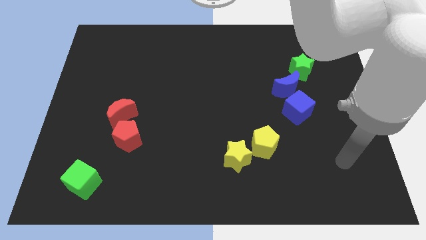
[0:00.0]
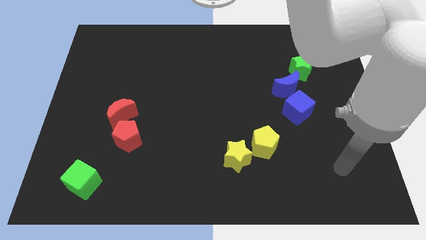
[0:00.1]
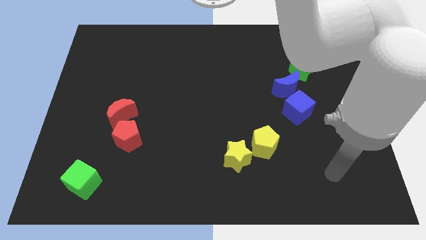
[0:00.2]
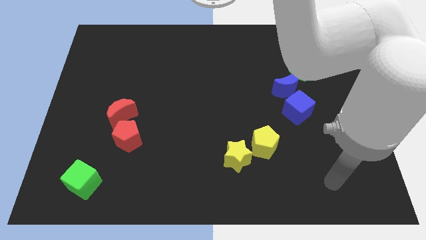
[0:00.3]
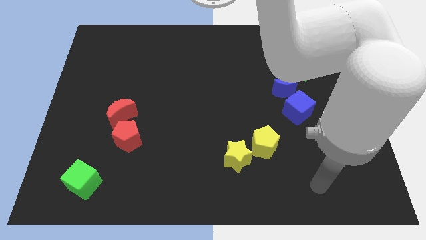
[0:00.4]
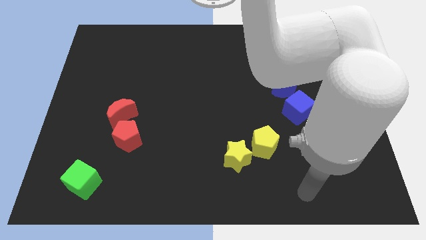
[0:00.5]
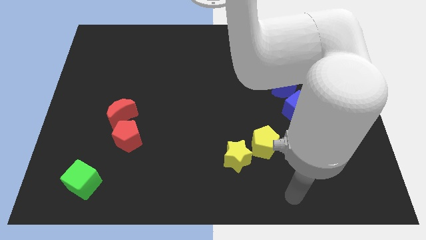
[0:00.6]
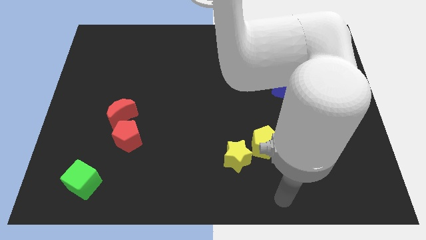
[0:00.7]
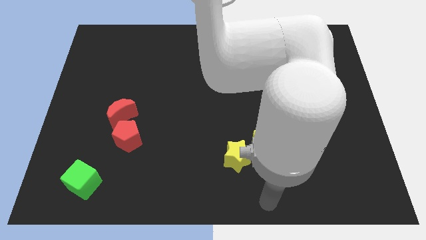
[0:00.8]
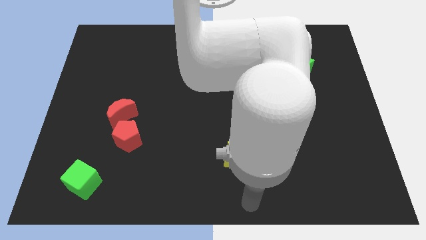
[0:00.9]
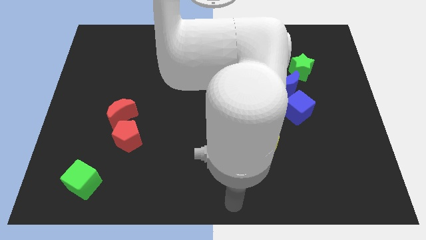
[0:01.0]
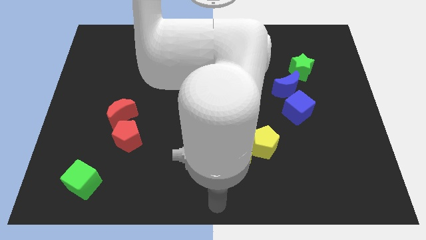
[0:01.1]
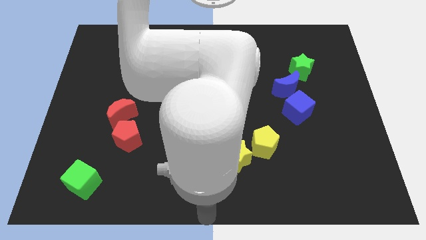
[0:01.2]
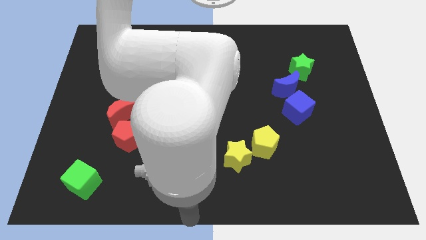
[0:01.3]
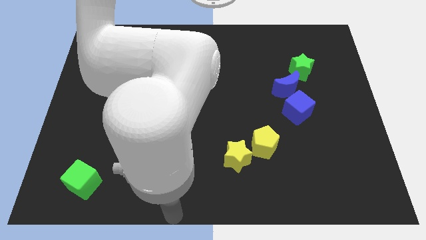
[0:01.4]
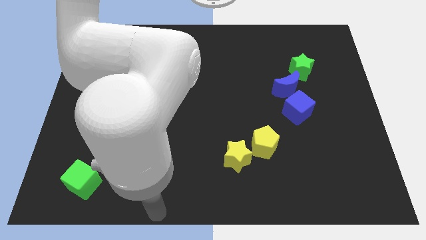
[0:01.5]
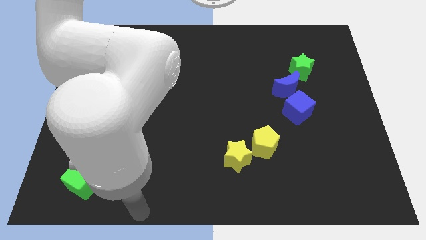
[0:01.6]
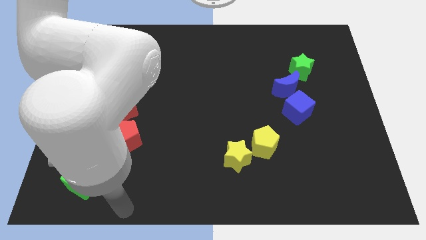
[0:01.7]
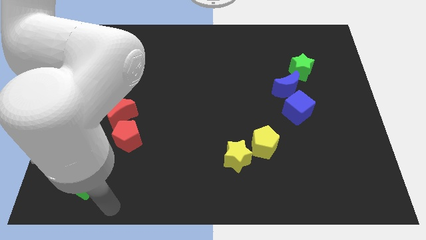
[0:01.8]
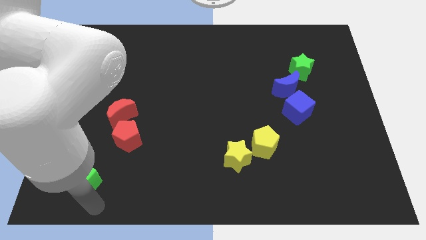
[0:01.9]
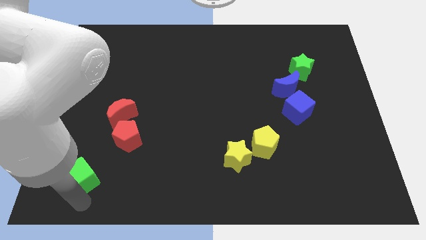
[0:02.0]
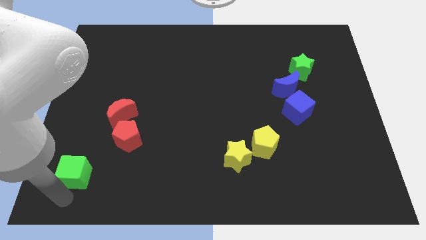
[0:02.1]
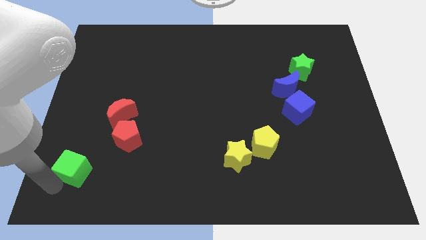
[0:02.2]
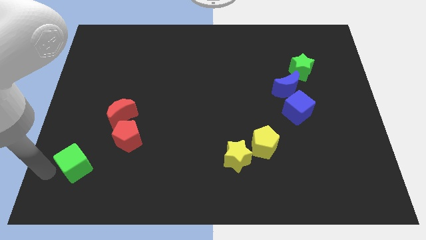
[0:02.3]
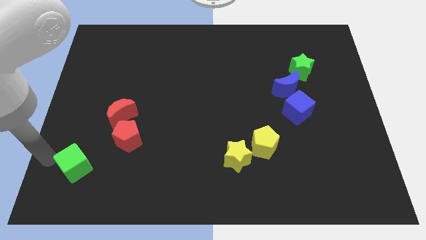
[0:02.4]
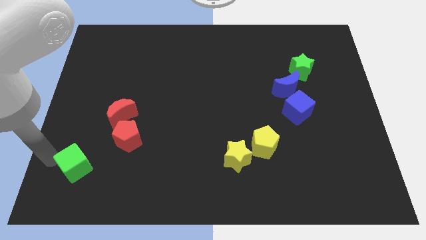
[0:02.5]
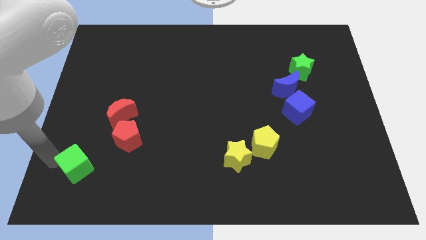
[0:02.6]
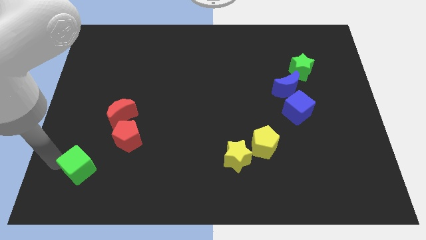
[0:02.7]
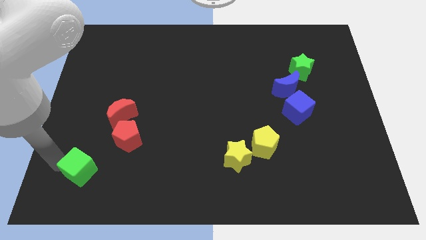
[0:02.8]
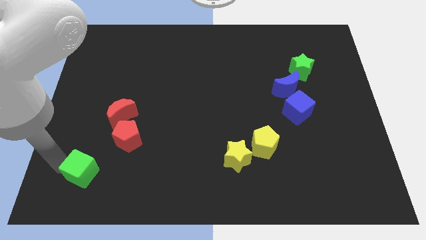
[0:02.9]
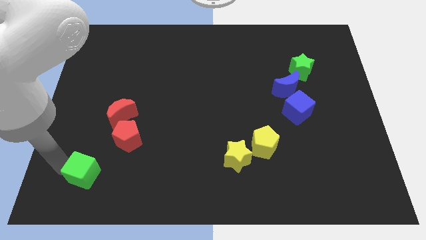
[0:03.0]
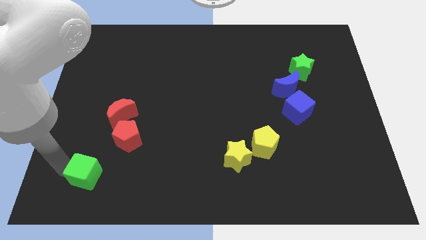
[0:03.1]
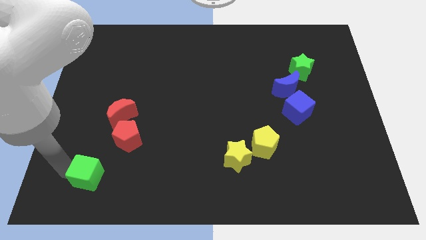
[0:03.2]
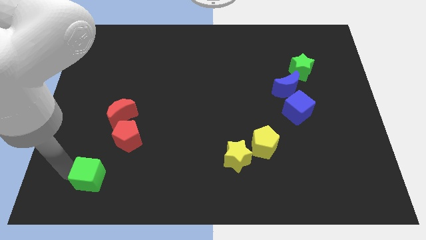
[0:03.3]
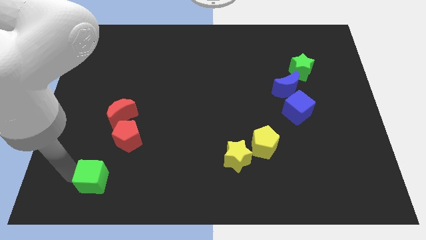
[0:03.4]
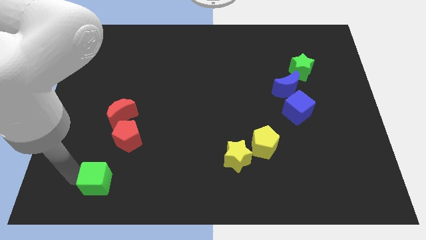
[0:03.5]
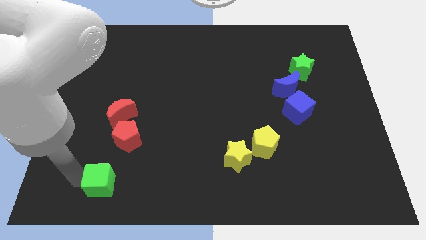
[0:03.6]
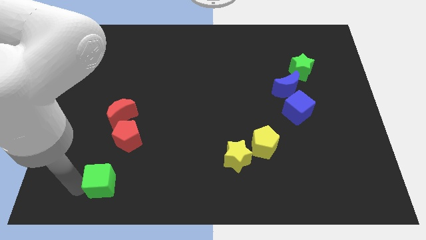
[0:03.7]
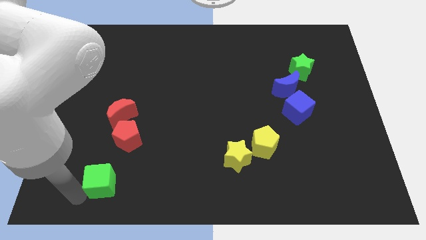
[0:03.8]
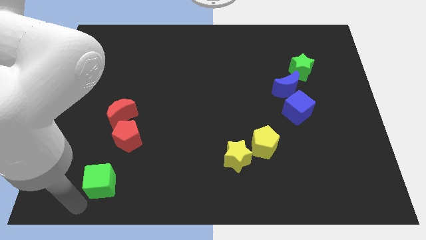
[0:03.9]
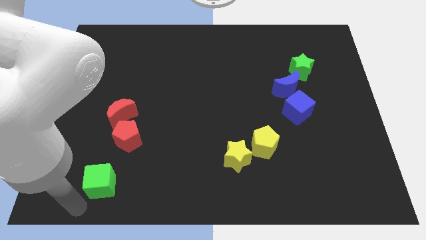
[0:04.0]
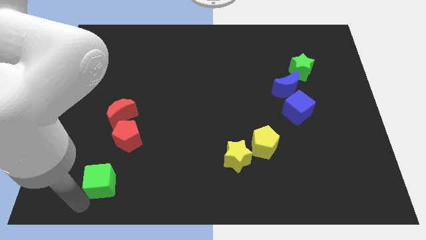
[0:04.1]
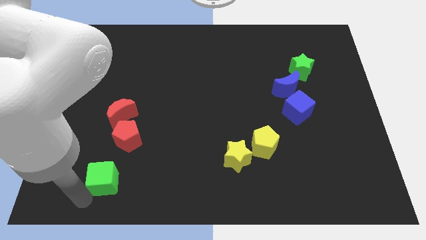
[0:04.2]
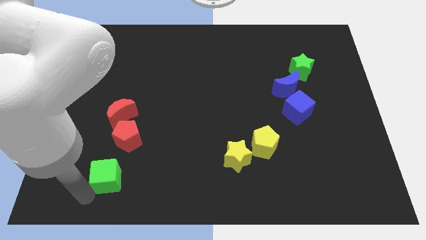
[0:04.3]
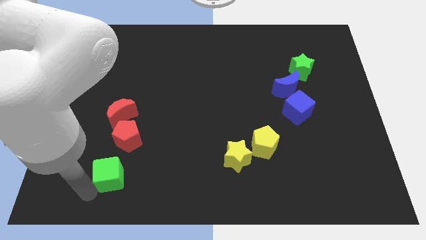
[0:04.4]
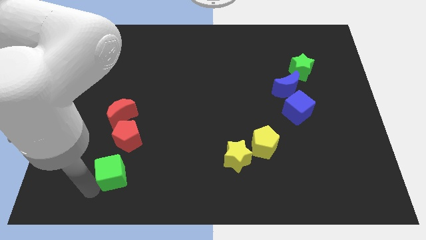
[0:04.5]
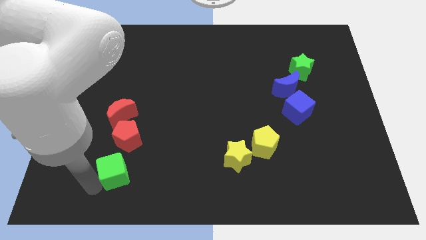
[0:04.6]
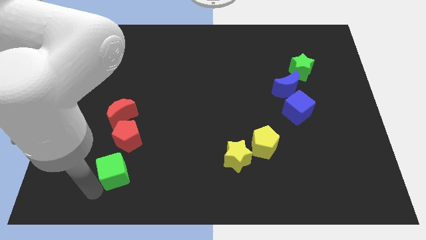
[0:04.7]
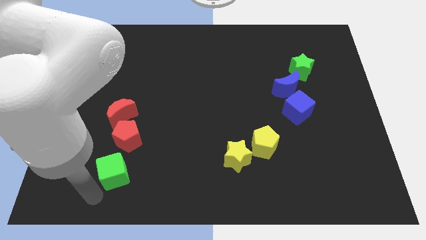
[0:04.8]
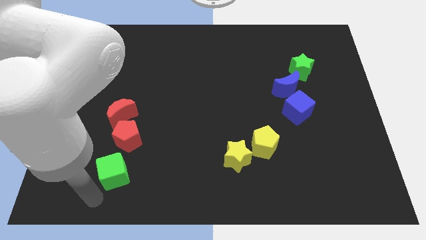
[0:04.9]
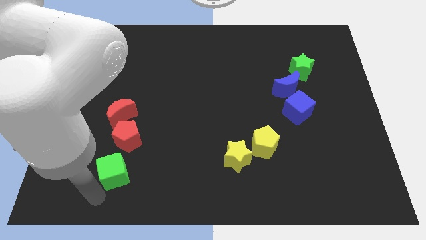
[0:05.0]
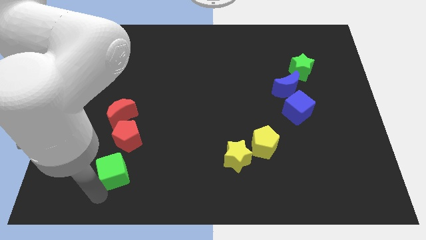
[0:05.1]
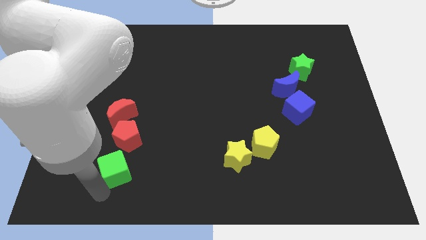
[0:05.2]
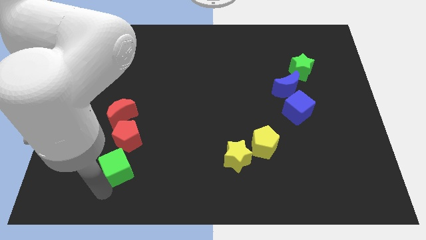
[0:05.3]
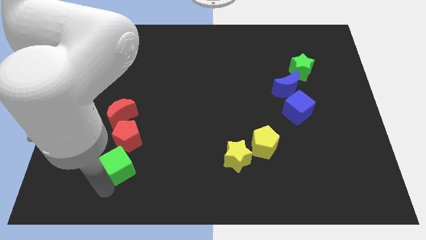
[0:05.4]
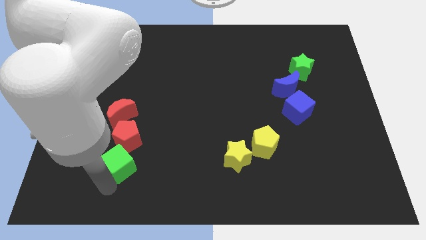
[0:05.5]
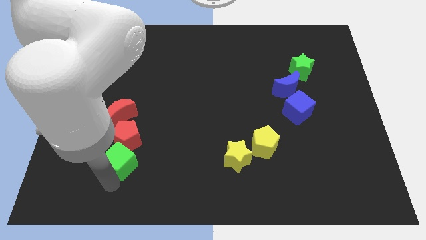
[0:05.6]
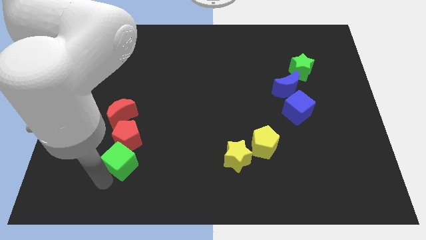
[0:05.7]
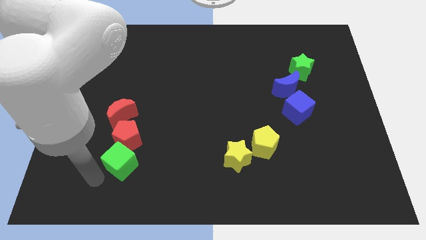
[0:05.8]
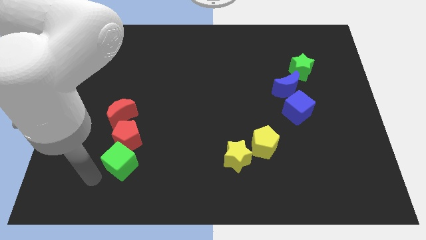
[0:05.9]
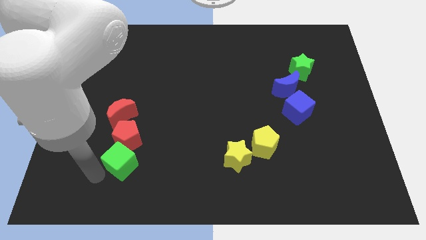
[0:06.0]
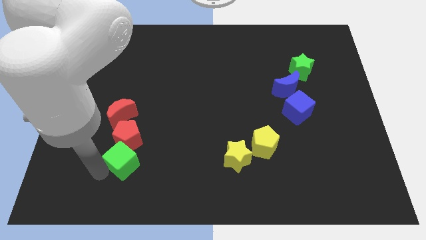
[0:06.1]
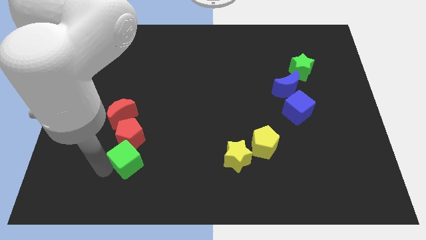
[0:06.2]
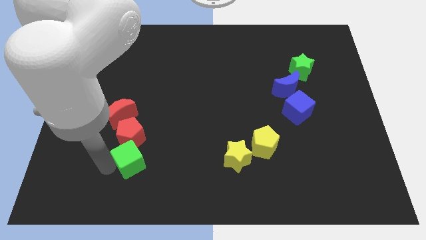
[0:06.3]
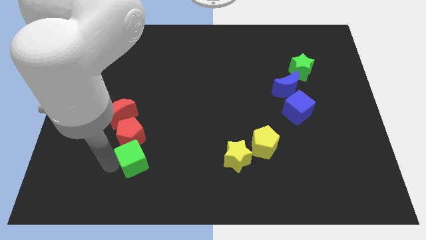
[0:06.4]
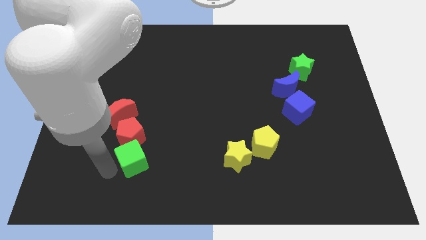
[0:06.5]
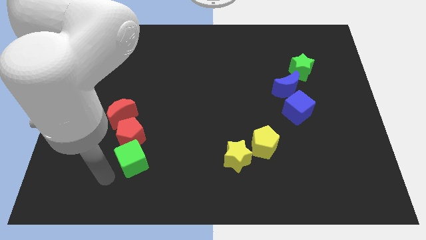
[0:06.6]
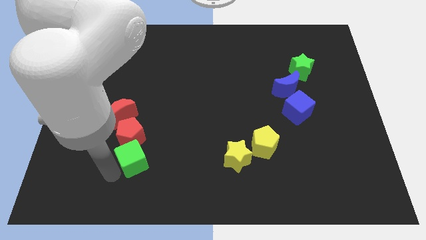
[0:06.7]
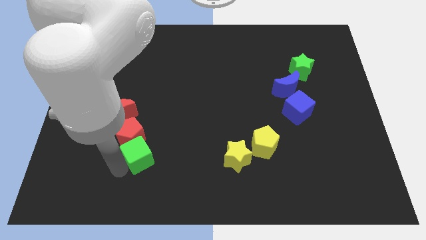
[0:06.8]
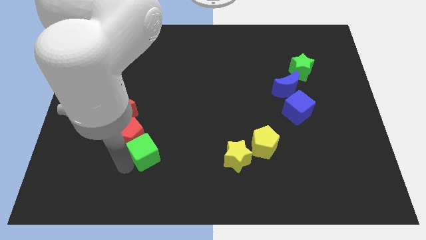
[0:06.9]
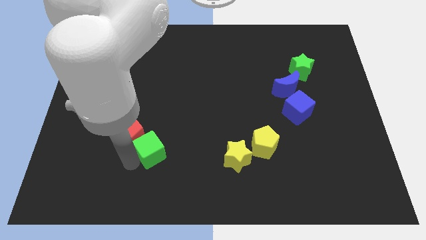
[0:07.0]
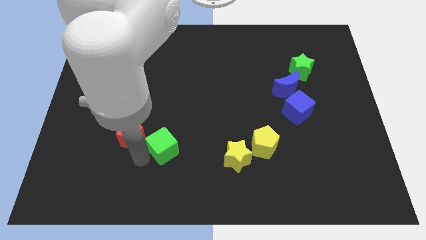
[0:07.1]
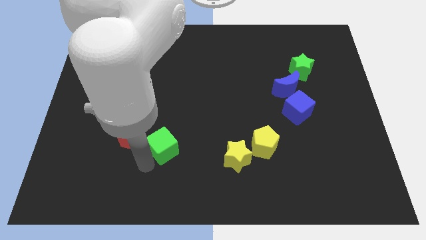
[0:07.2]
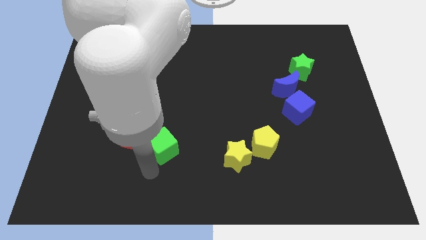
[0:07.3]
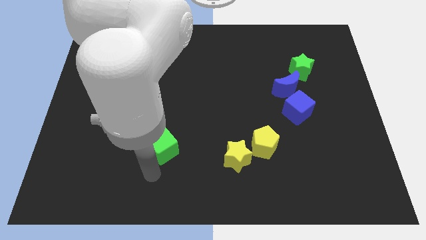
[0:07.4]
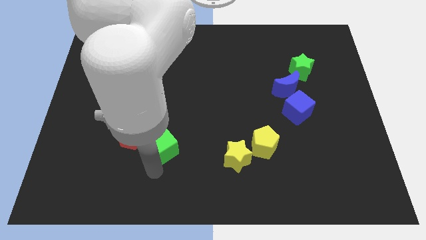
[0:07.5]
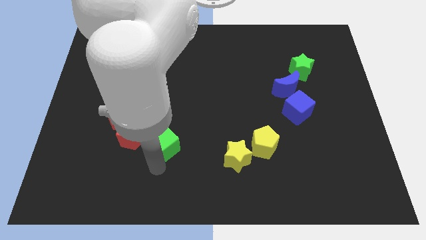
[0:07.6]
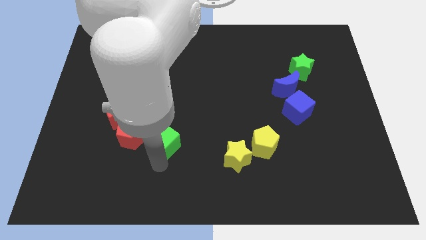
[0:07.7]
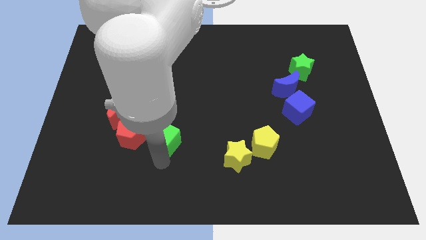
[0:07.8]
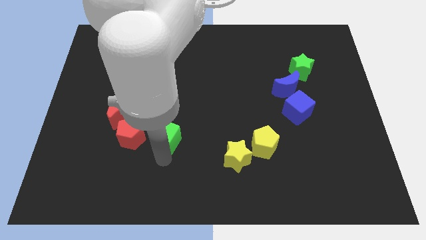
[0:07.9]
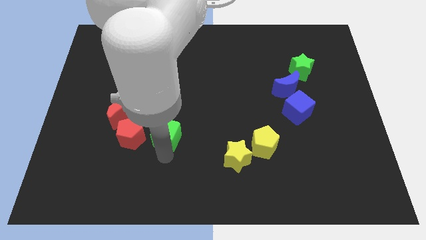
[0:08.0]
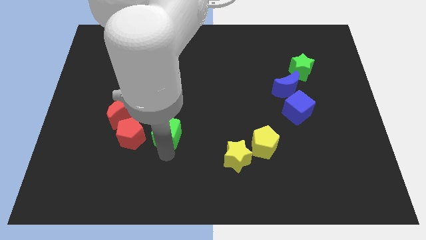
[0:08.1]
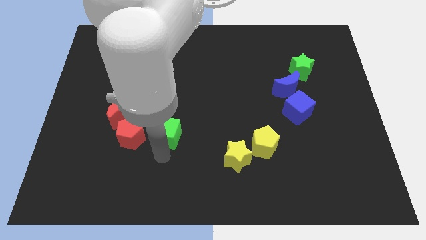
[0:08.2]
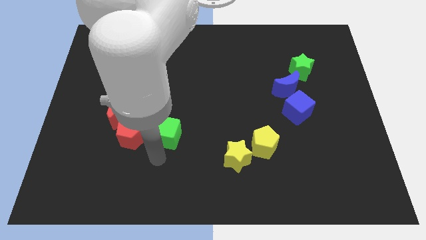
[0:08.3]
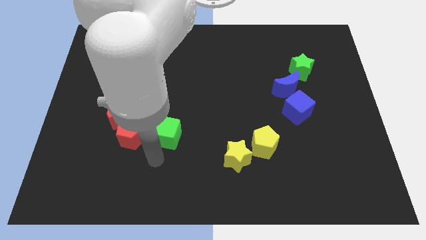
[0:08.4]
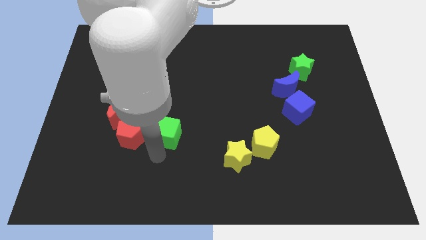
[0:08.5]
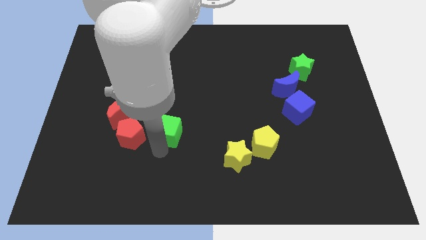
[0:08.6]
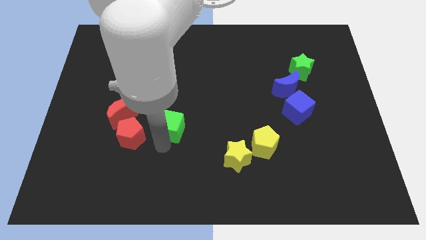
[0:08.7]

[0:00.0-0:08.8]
push the green cube upwards and then right
